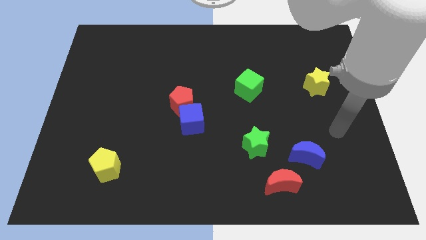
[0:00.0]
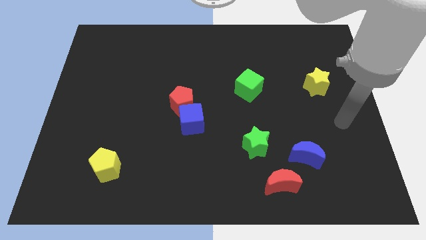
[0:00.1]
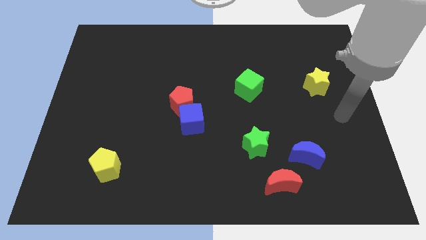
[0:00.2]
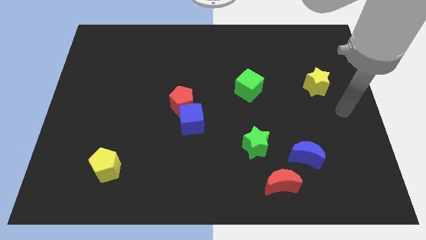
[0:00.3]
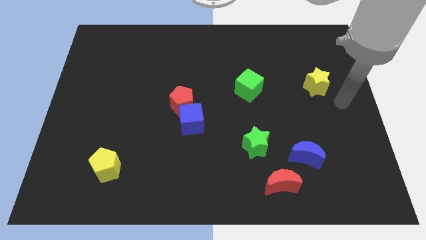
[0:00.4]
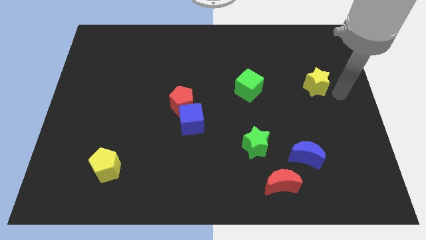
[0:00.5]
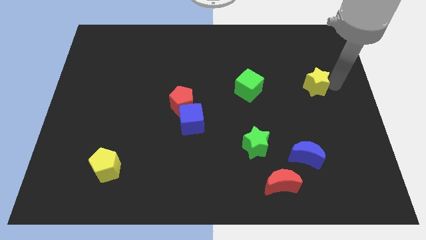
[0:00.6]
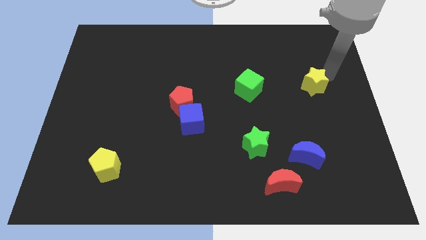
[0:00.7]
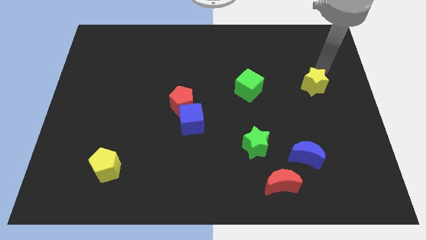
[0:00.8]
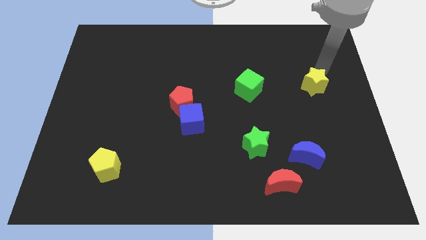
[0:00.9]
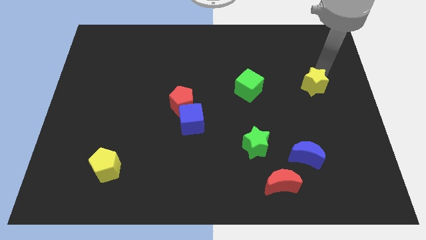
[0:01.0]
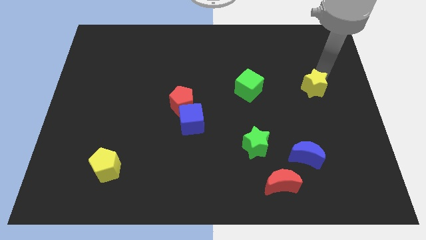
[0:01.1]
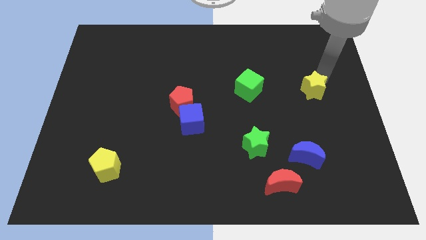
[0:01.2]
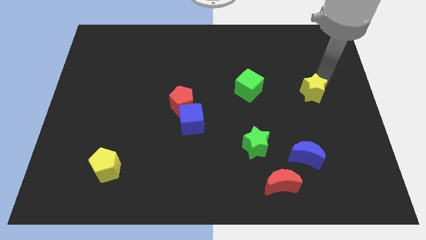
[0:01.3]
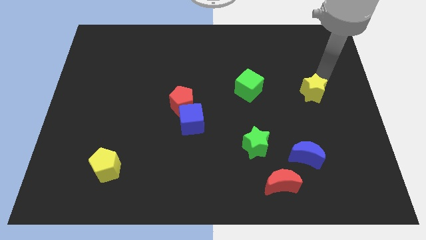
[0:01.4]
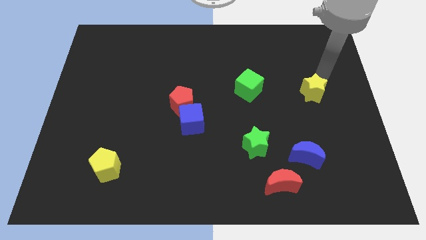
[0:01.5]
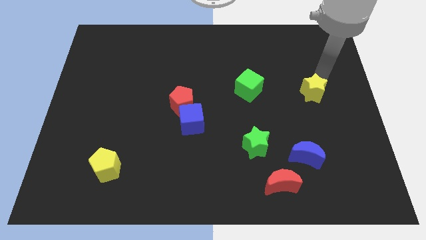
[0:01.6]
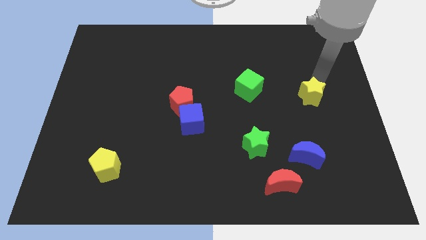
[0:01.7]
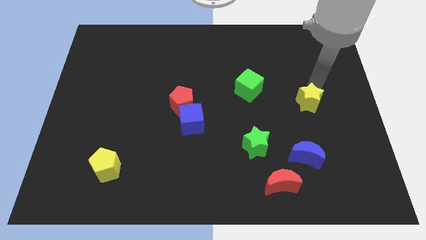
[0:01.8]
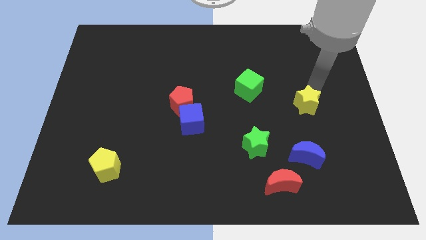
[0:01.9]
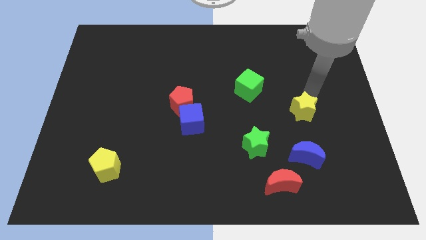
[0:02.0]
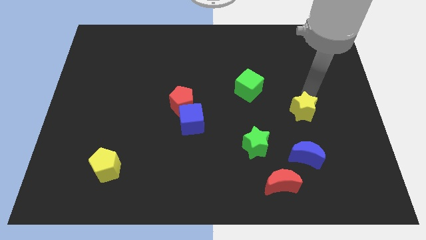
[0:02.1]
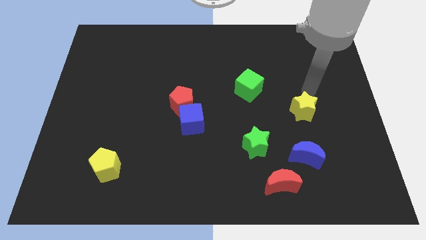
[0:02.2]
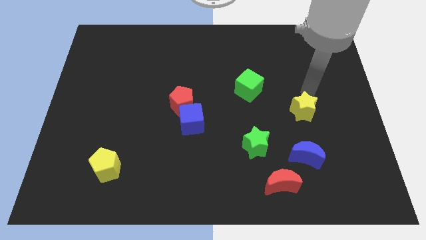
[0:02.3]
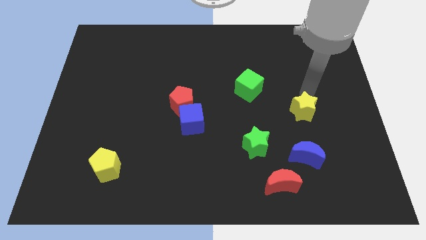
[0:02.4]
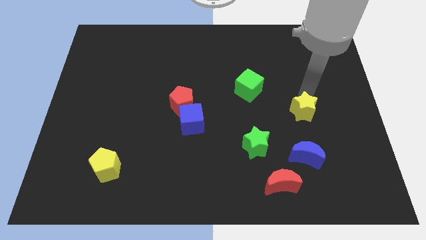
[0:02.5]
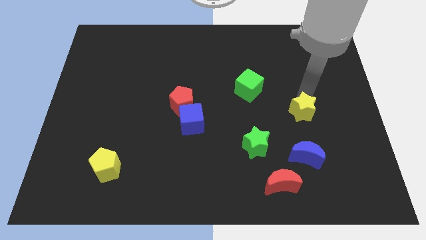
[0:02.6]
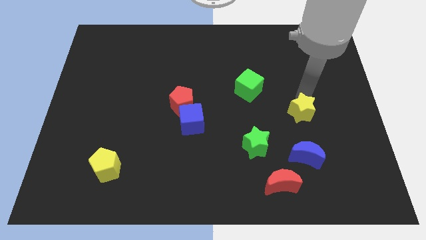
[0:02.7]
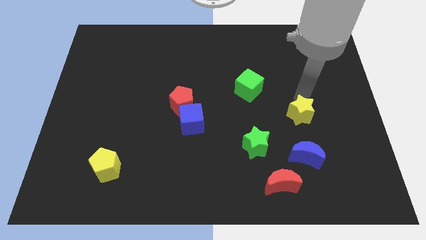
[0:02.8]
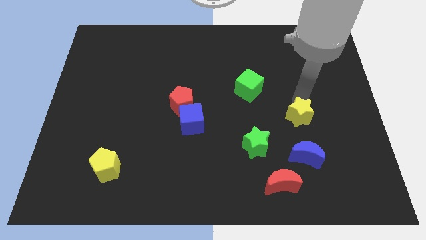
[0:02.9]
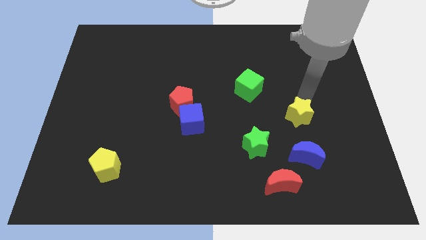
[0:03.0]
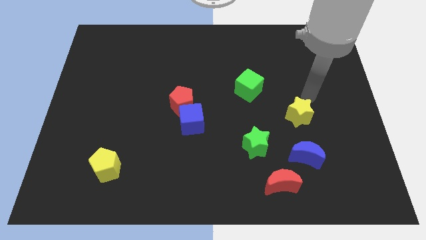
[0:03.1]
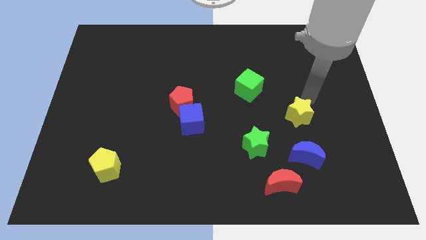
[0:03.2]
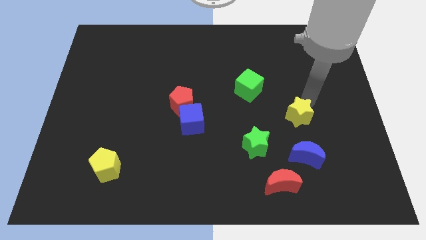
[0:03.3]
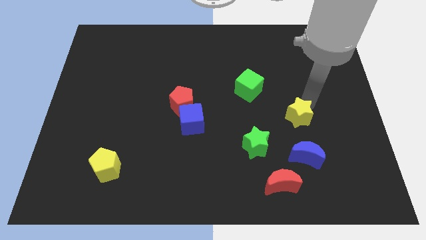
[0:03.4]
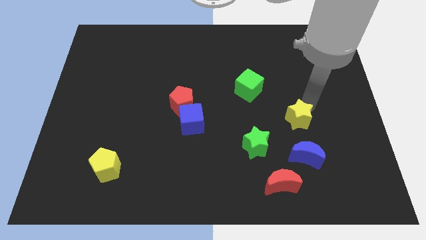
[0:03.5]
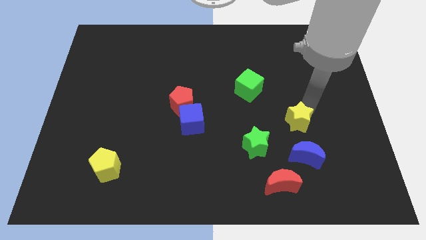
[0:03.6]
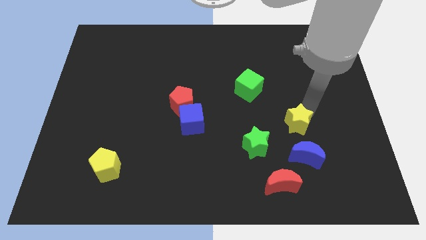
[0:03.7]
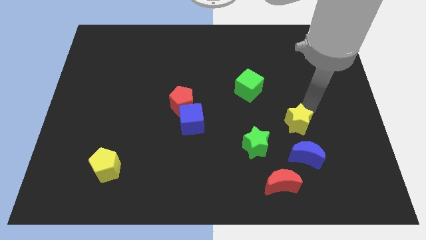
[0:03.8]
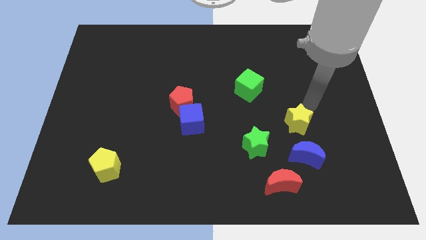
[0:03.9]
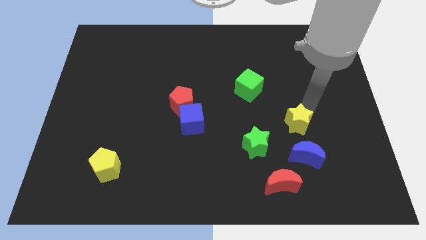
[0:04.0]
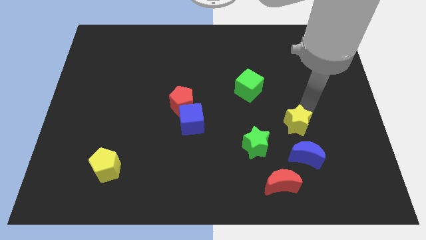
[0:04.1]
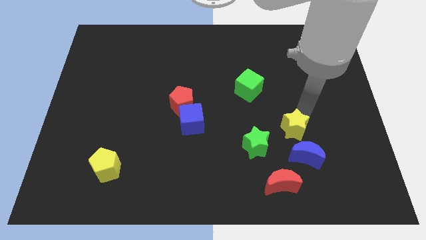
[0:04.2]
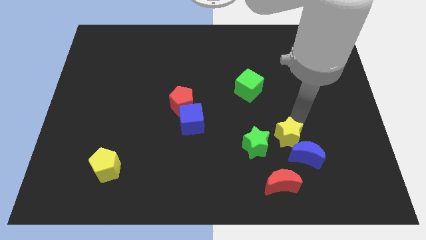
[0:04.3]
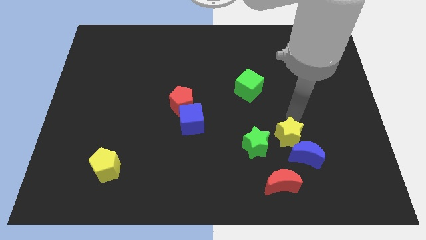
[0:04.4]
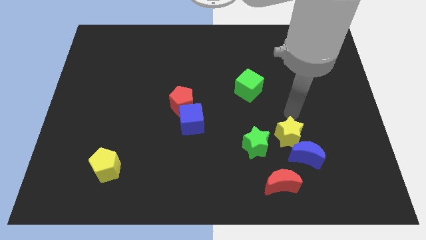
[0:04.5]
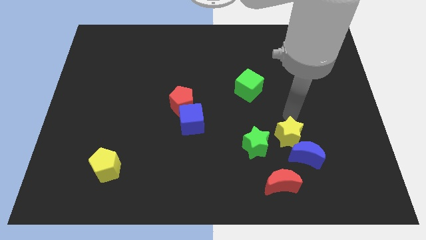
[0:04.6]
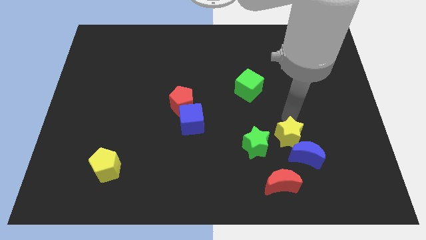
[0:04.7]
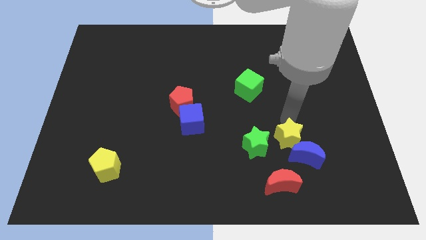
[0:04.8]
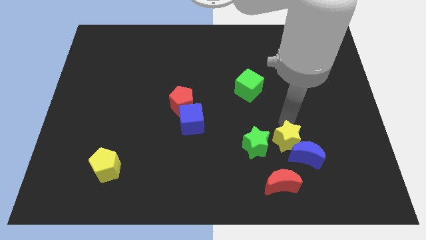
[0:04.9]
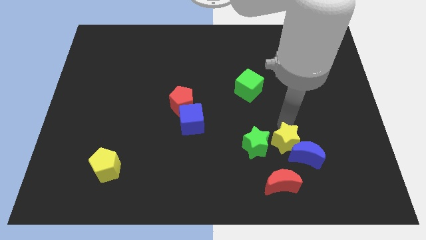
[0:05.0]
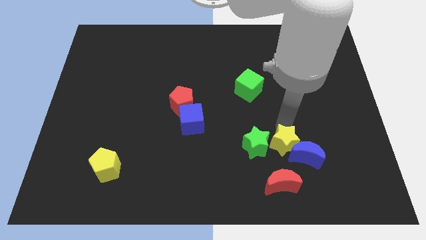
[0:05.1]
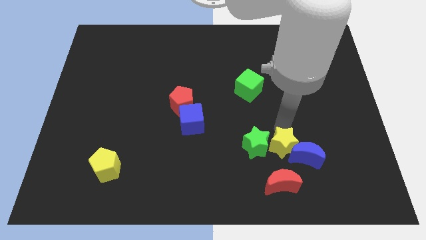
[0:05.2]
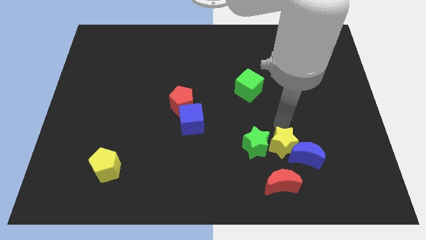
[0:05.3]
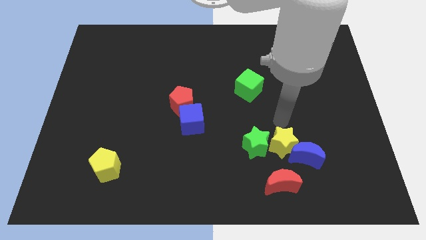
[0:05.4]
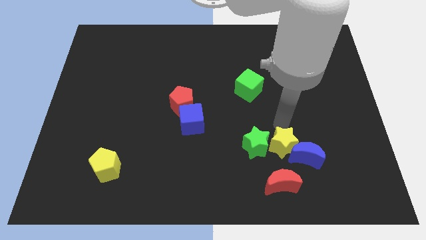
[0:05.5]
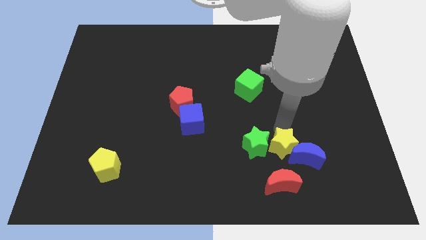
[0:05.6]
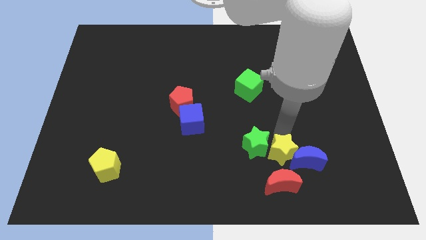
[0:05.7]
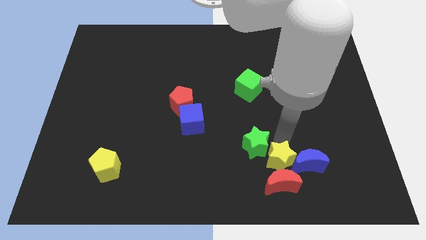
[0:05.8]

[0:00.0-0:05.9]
slide the yellow star to the red moon

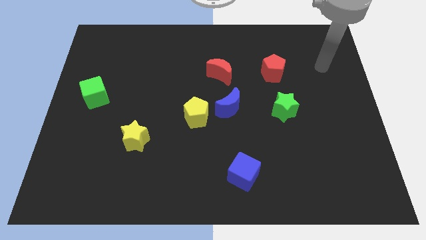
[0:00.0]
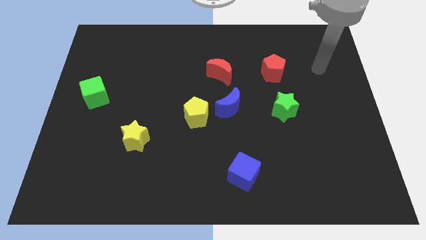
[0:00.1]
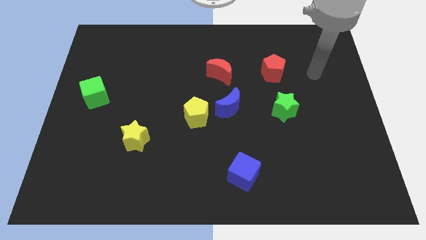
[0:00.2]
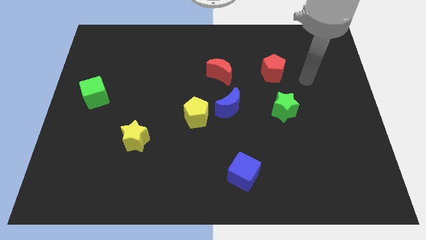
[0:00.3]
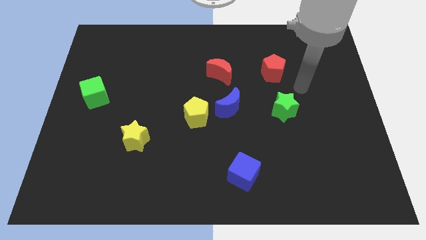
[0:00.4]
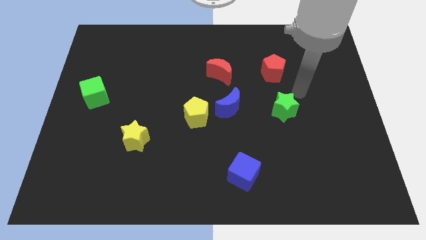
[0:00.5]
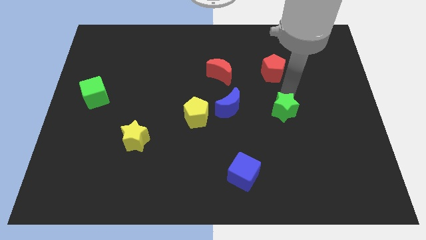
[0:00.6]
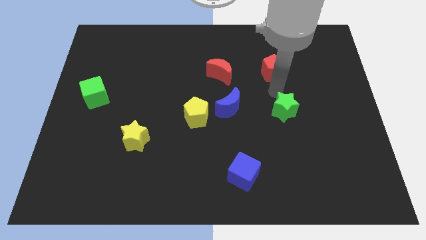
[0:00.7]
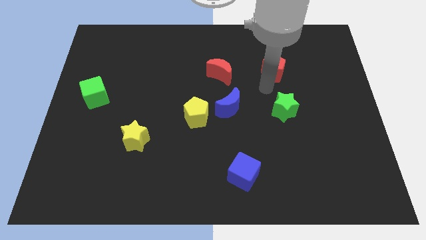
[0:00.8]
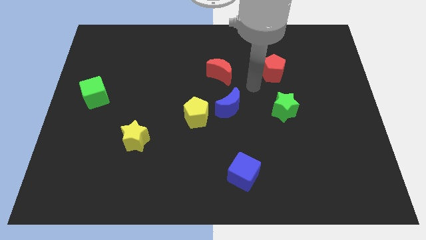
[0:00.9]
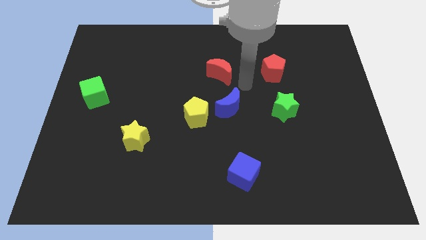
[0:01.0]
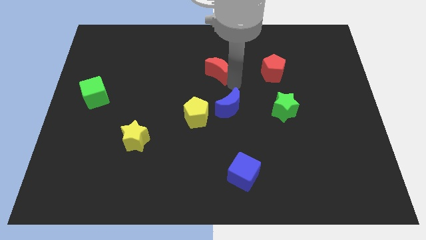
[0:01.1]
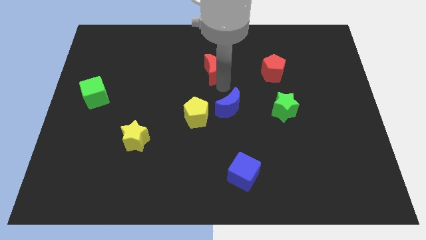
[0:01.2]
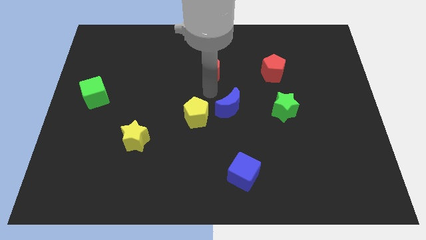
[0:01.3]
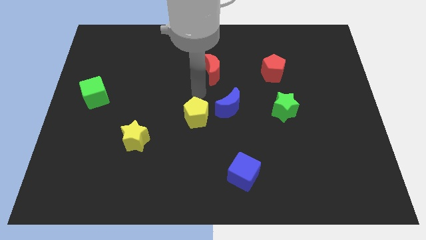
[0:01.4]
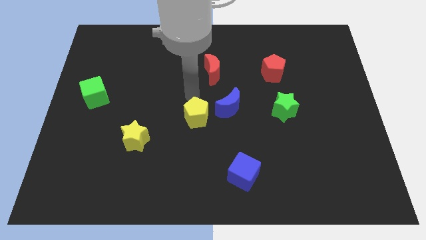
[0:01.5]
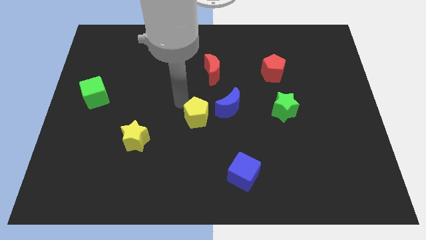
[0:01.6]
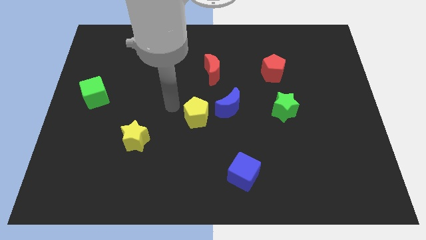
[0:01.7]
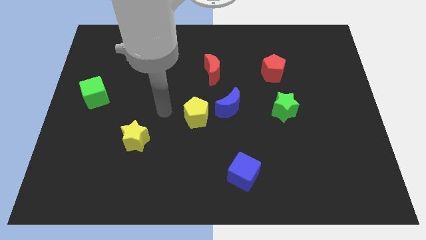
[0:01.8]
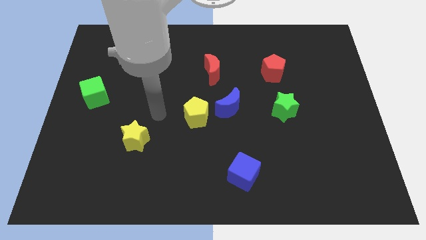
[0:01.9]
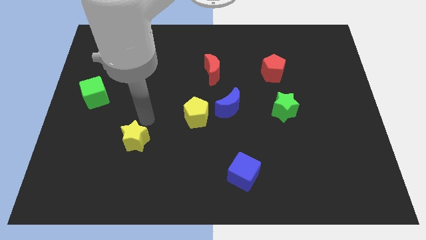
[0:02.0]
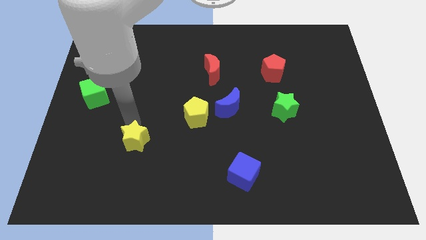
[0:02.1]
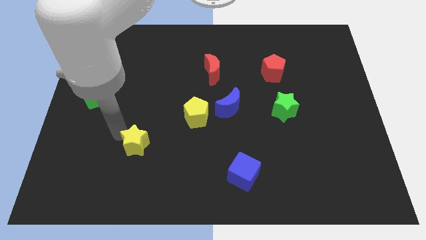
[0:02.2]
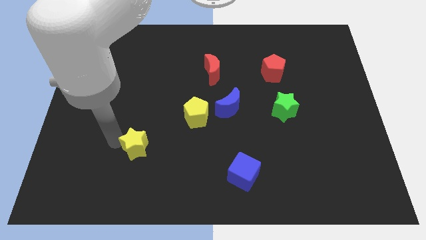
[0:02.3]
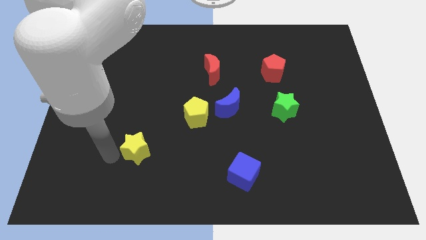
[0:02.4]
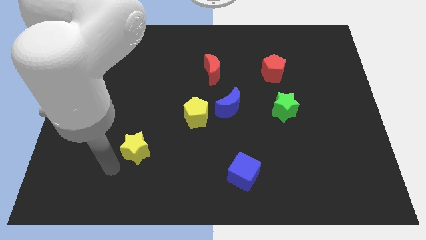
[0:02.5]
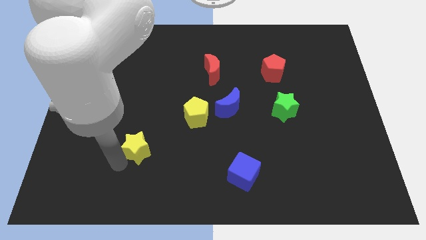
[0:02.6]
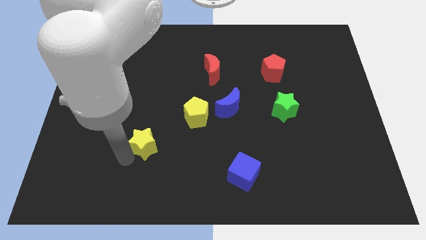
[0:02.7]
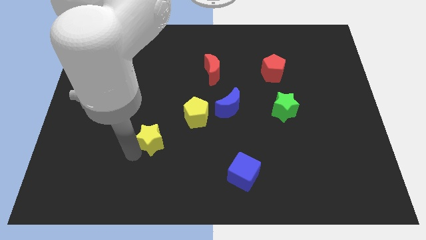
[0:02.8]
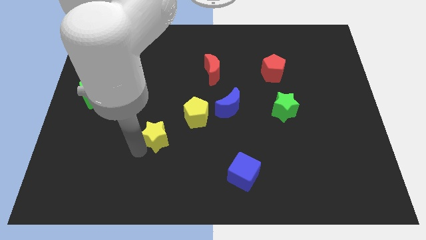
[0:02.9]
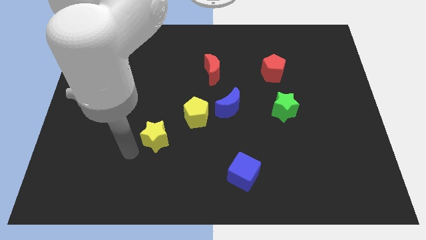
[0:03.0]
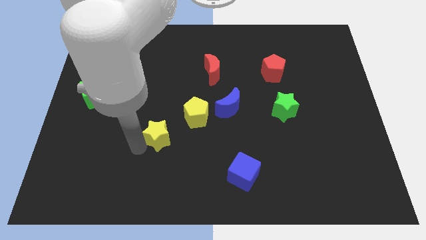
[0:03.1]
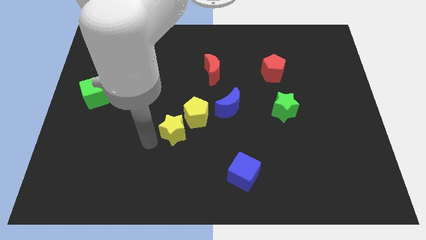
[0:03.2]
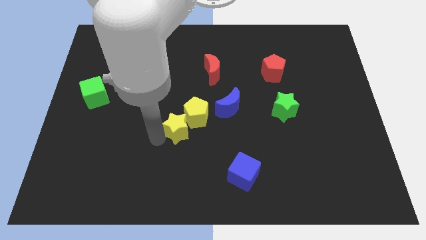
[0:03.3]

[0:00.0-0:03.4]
push the yellow star towards the yellow pentagon
